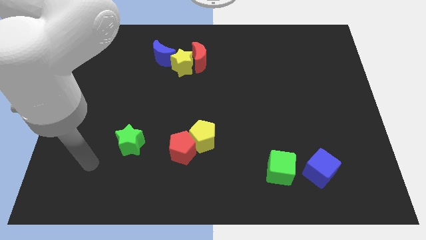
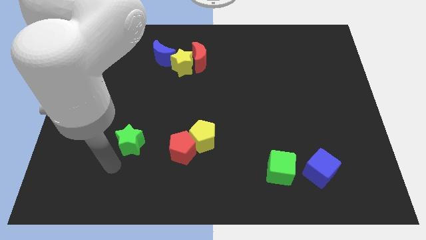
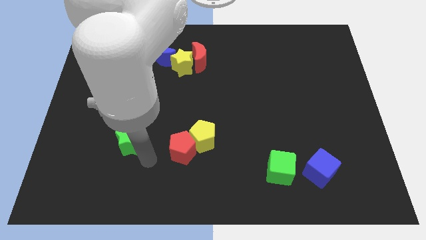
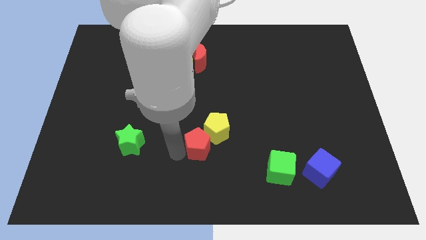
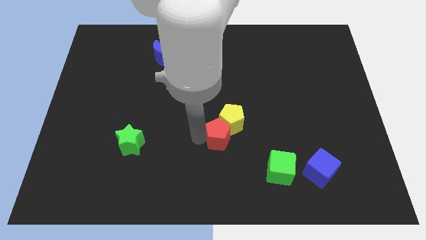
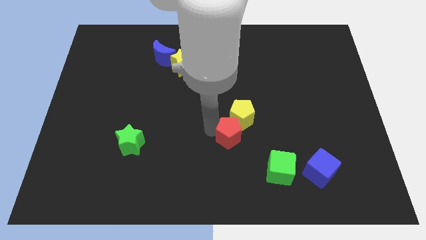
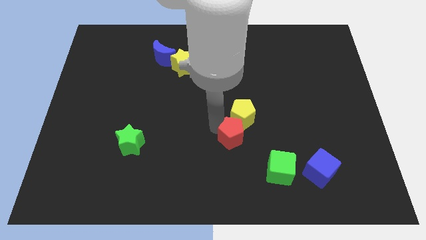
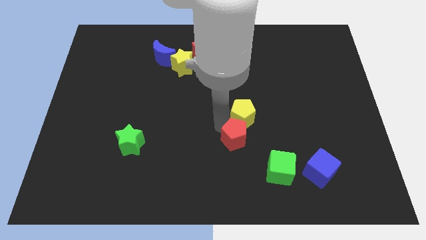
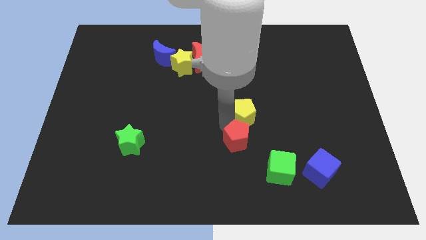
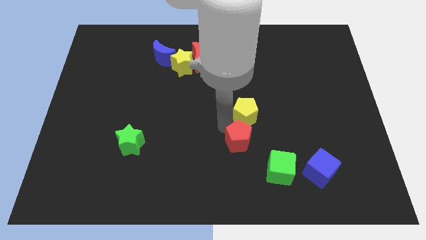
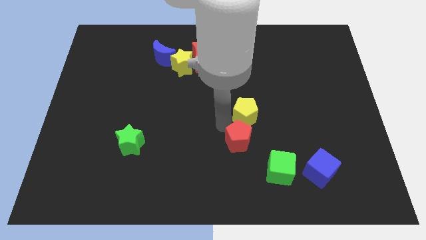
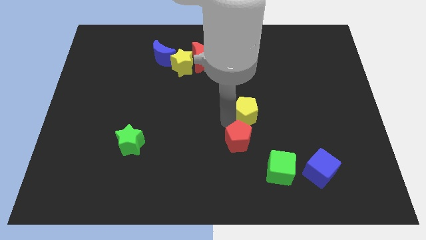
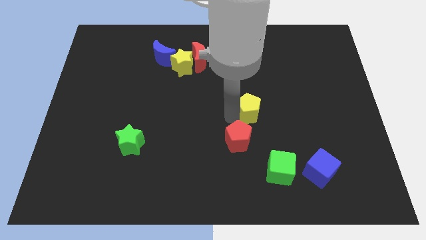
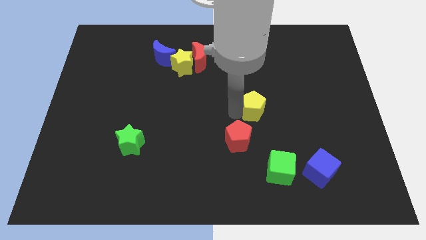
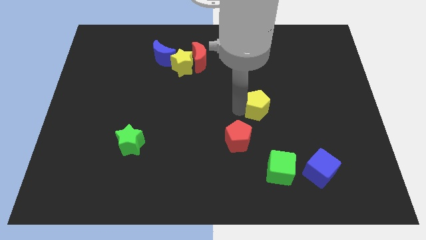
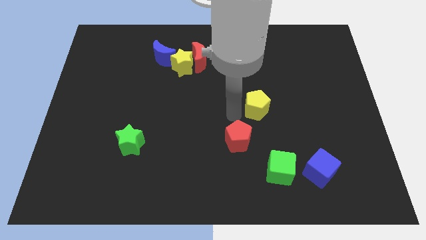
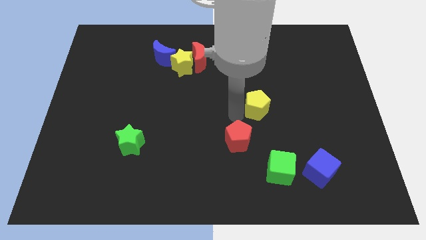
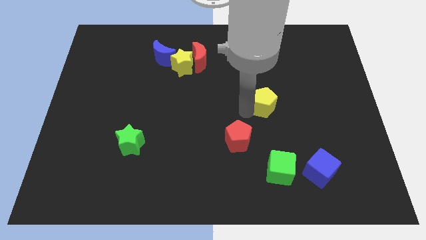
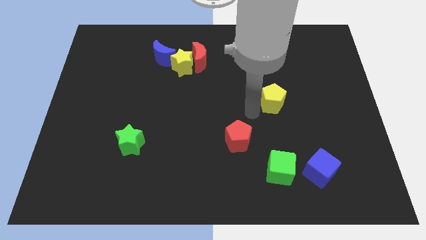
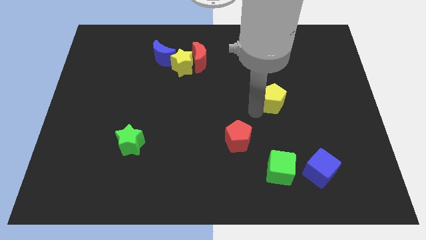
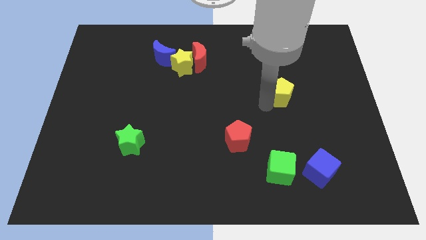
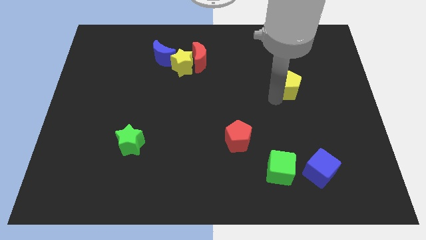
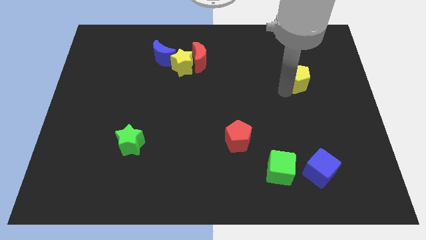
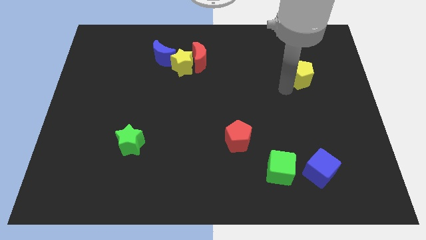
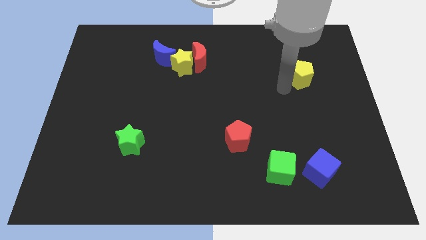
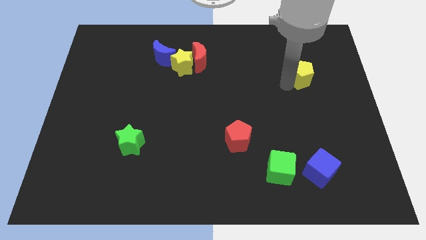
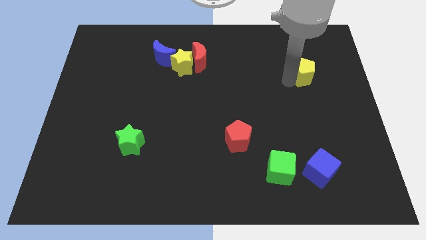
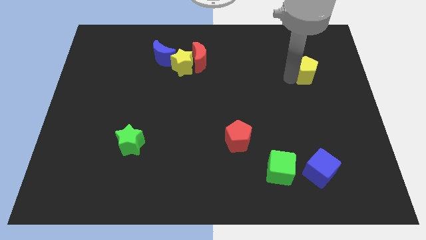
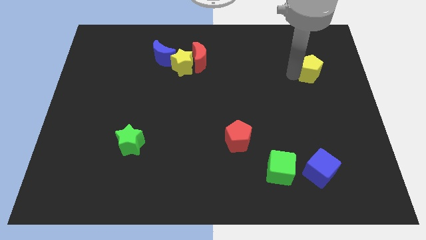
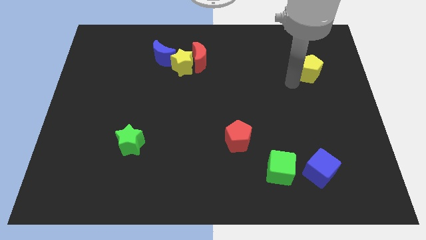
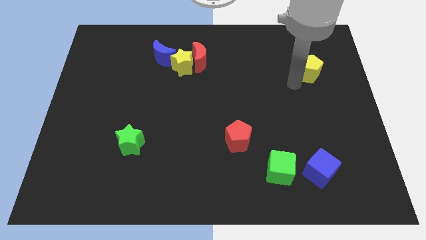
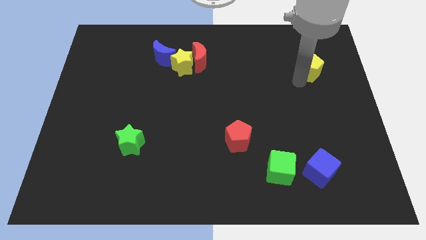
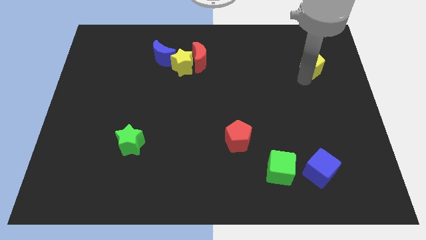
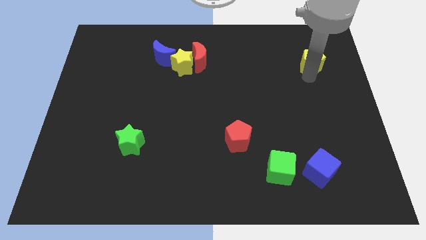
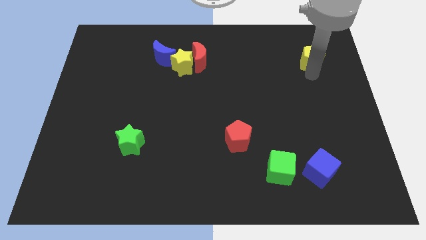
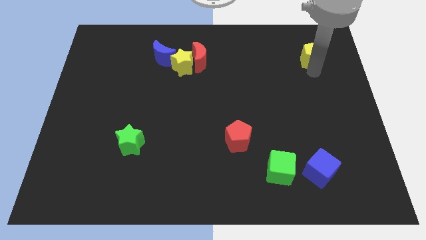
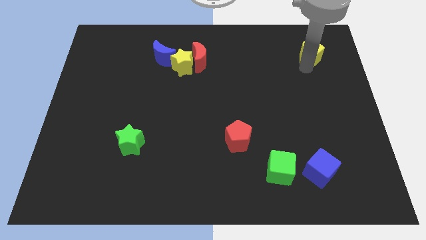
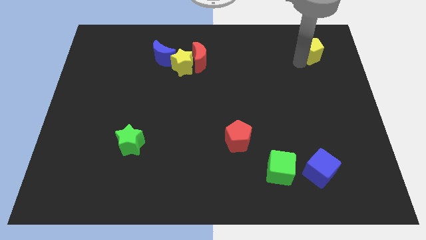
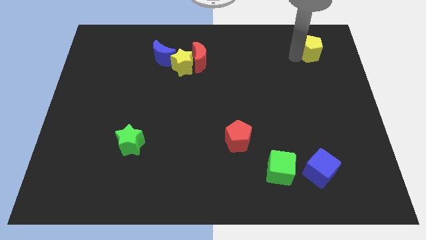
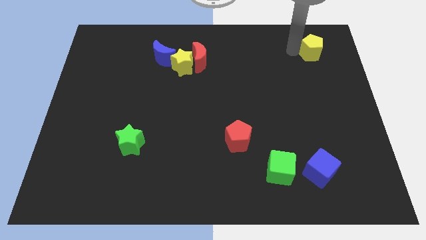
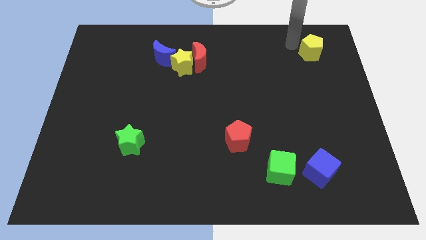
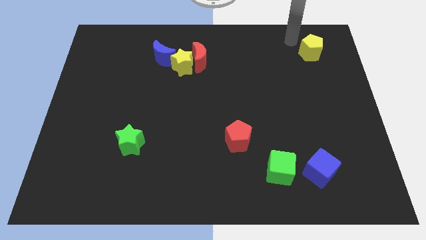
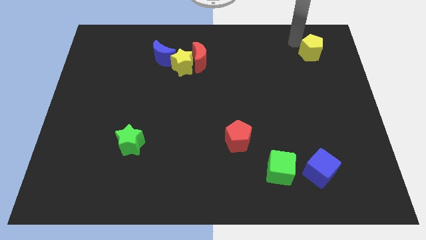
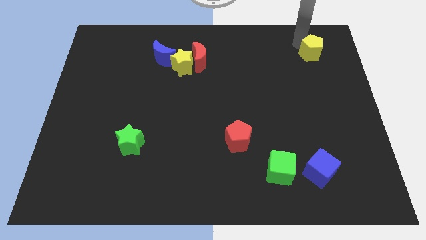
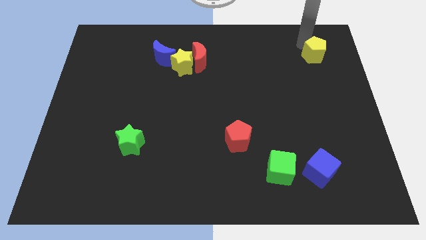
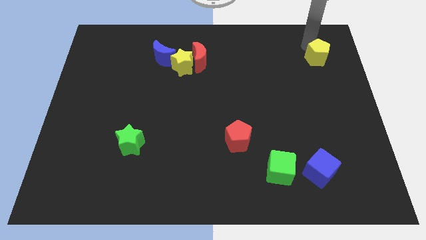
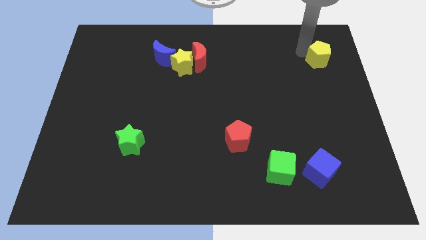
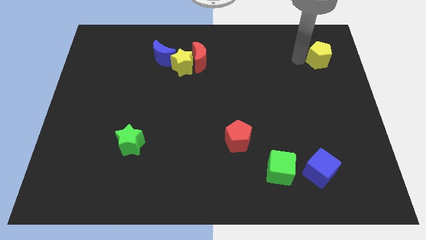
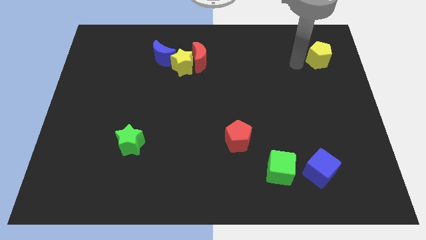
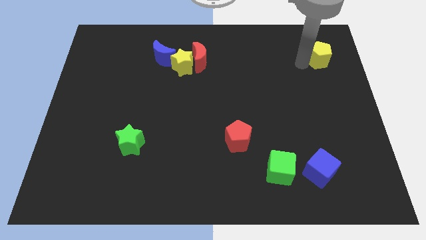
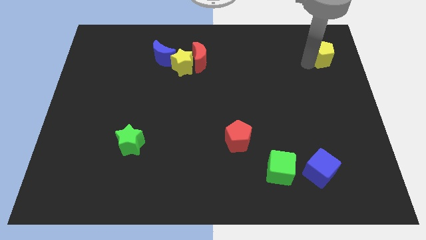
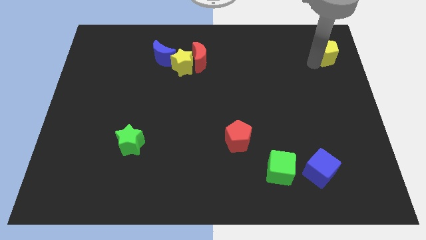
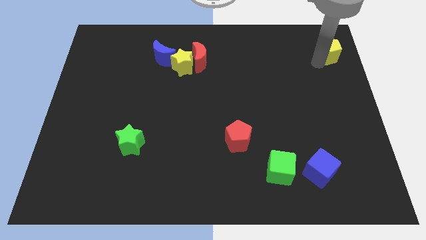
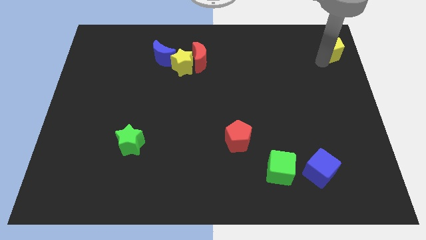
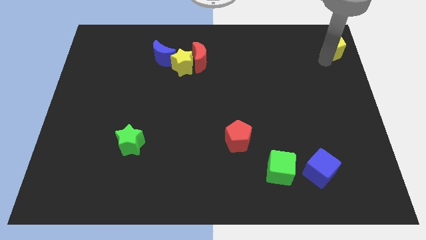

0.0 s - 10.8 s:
move the yellow pentagon to the top right corner
